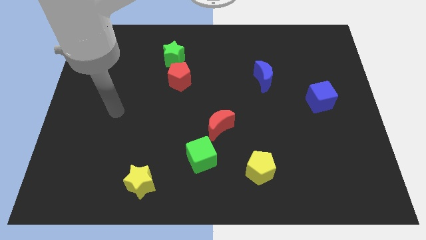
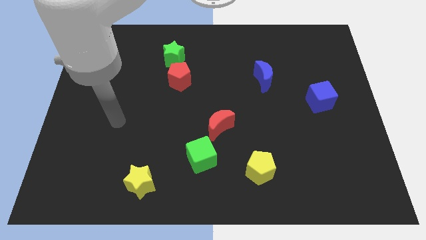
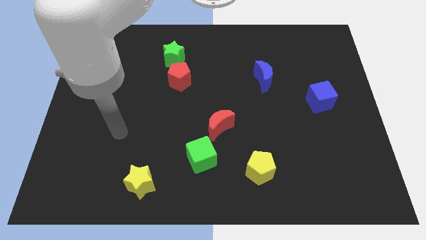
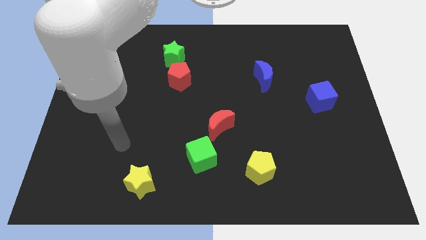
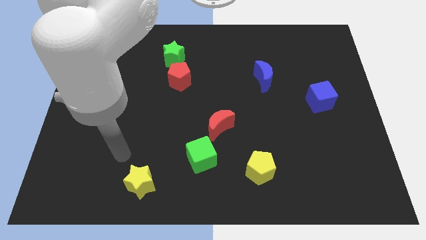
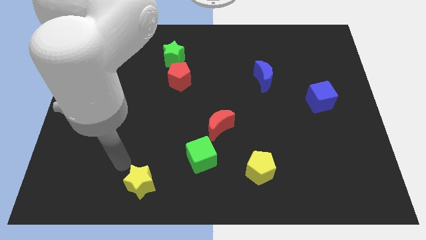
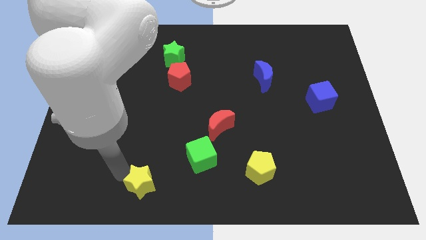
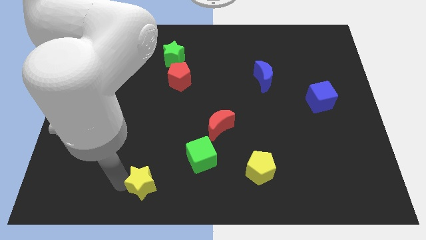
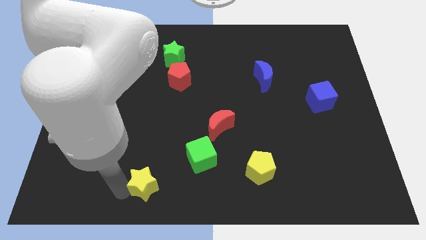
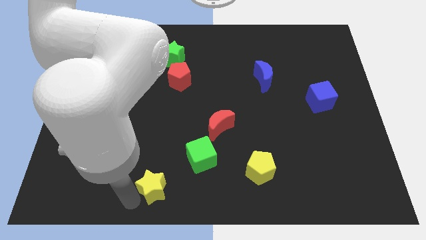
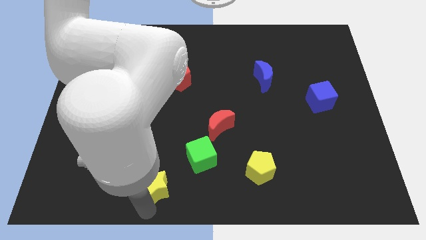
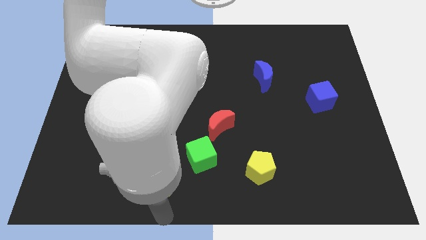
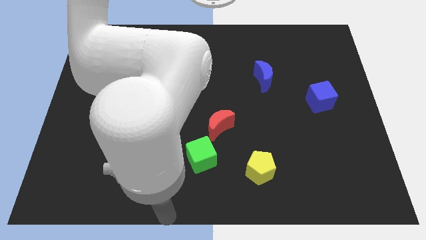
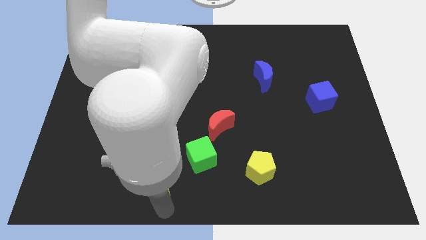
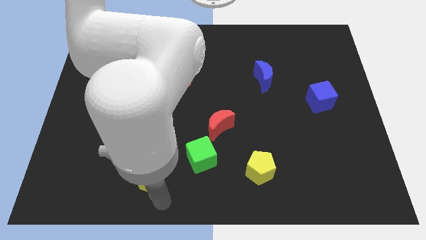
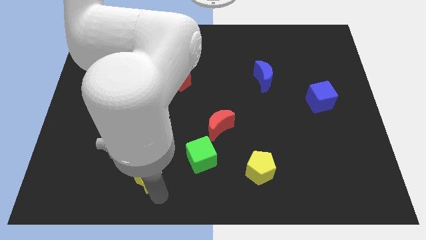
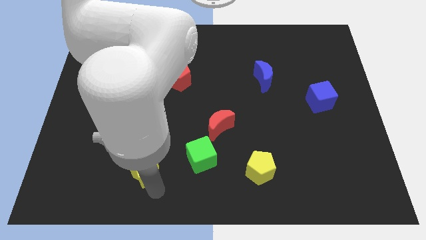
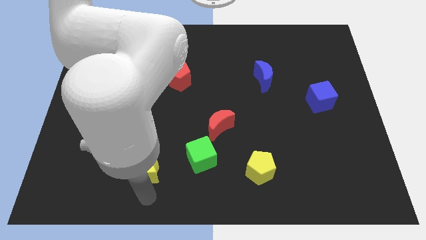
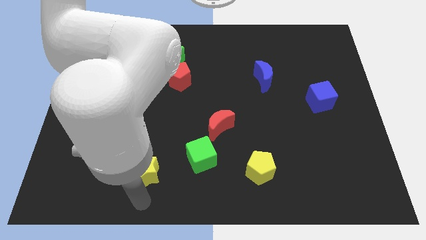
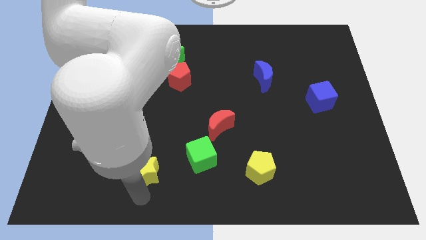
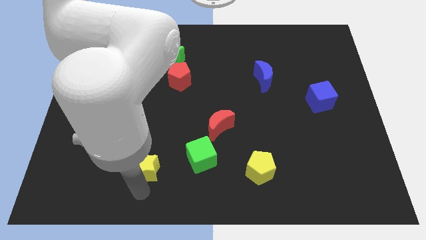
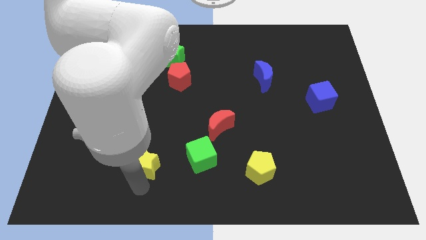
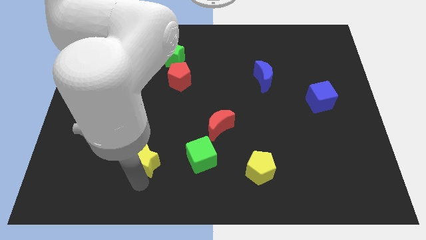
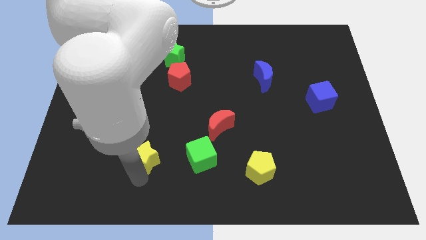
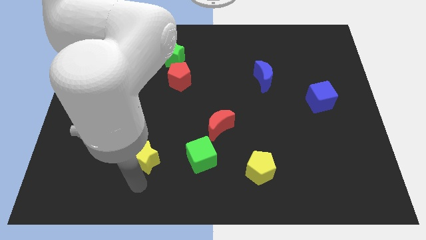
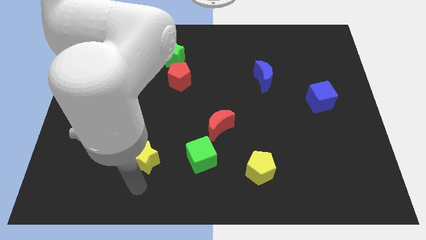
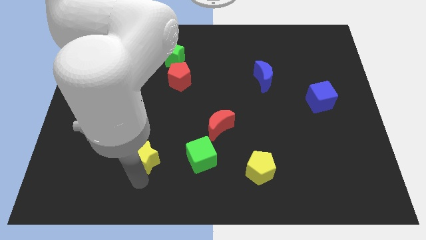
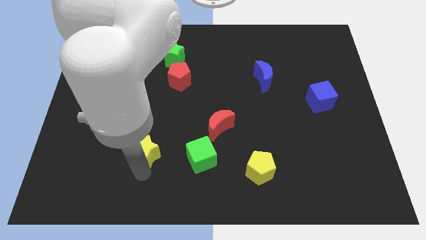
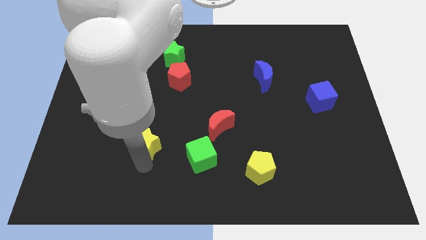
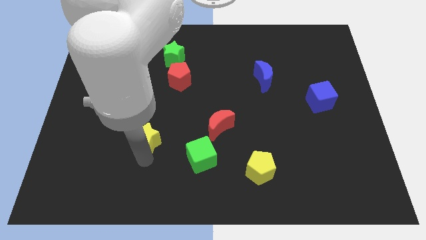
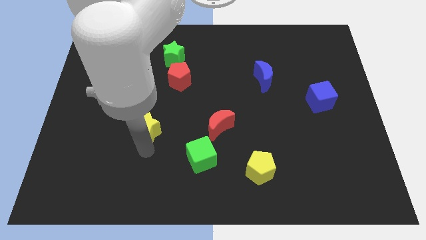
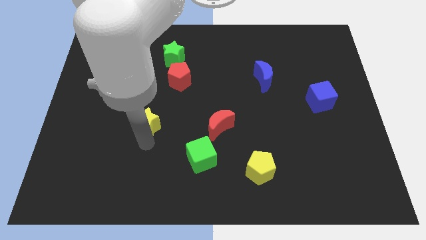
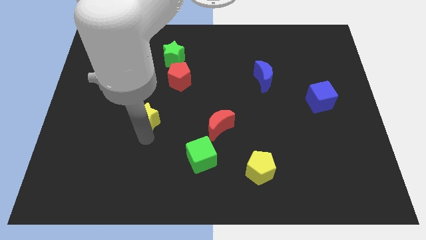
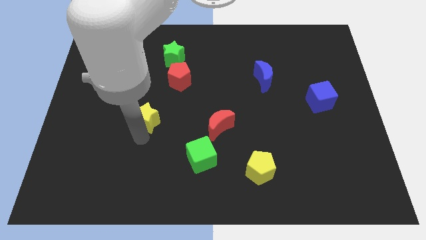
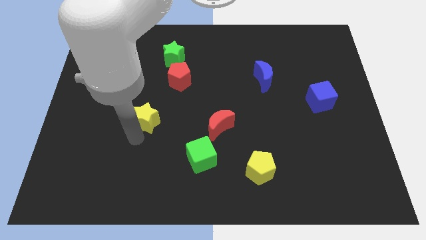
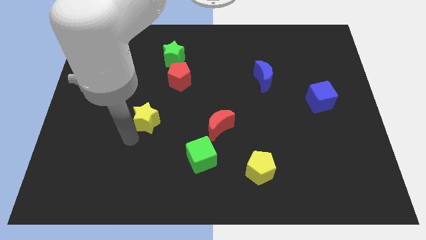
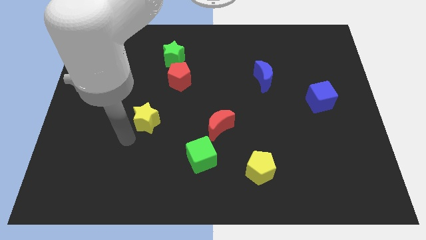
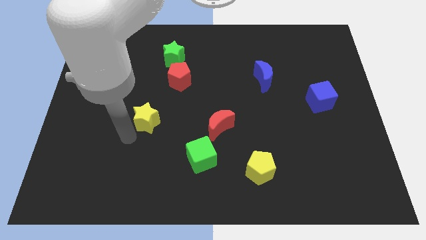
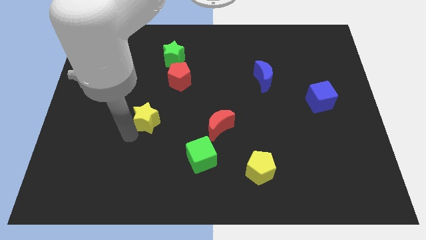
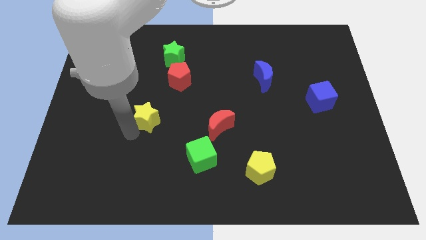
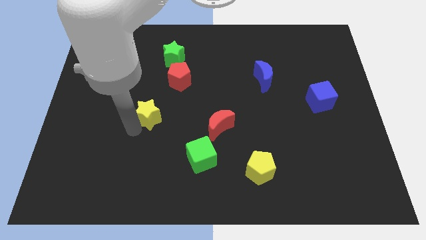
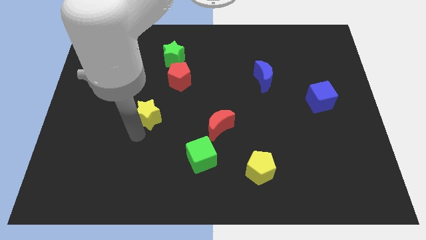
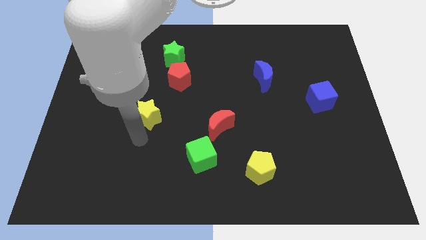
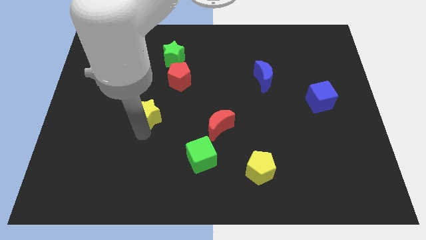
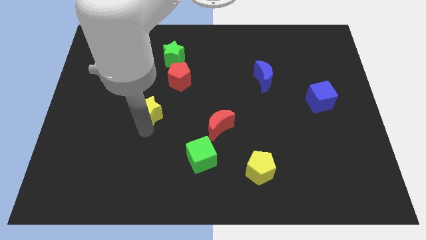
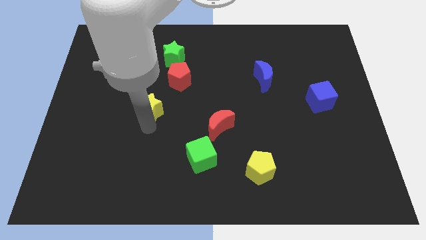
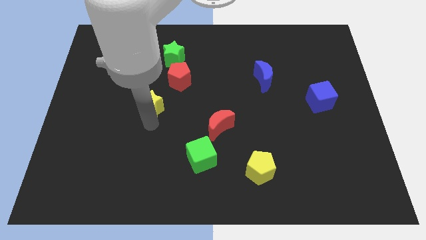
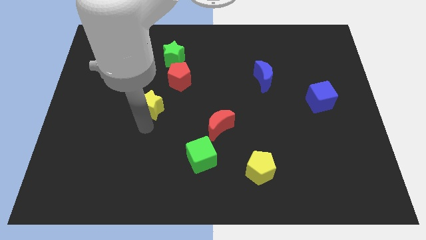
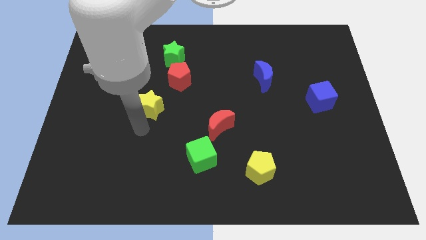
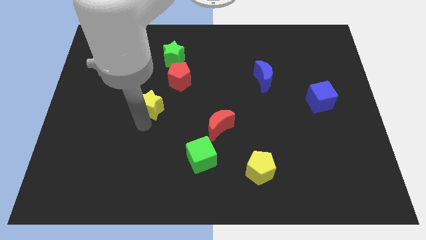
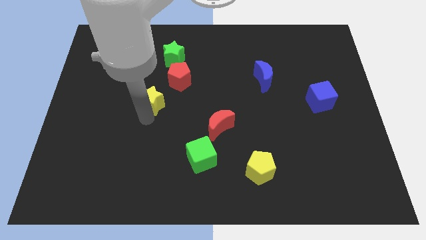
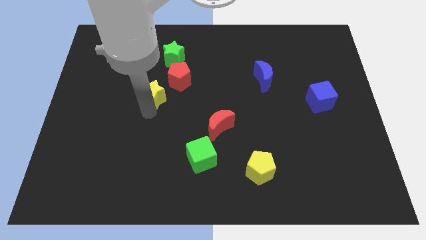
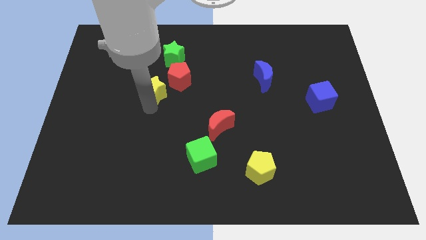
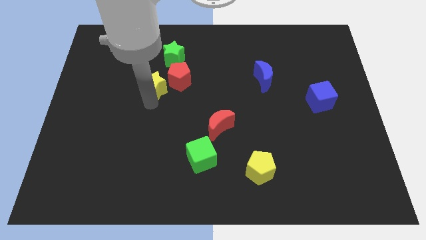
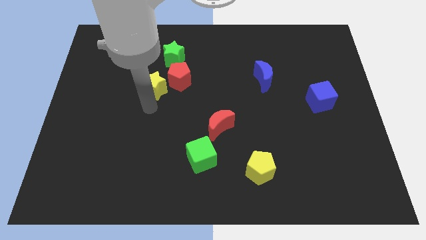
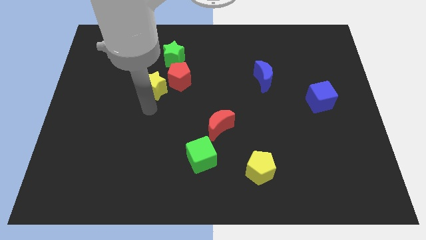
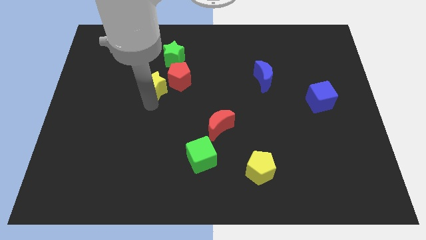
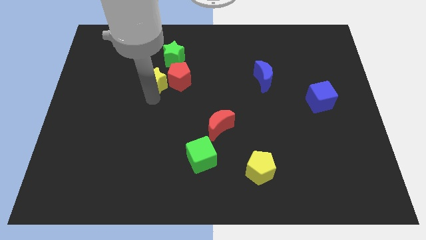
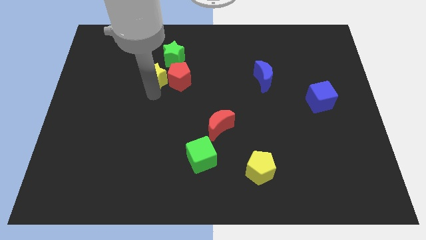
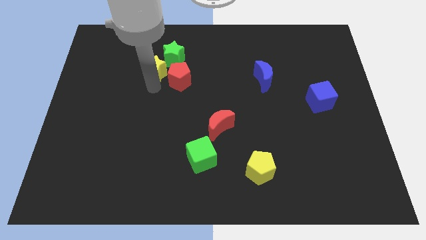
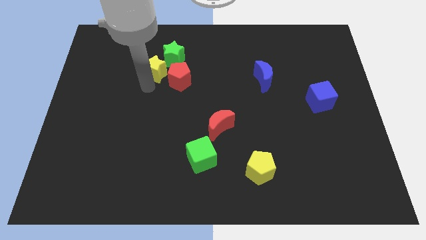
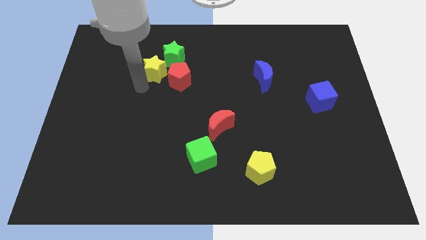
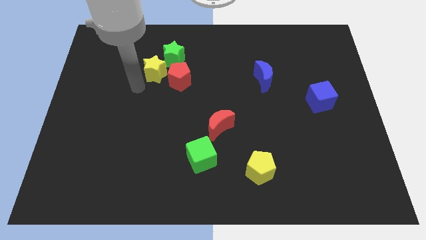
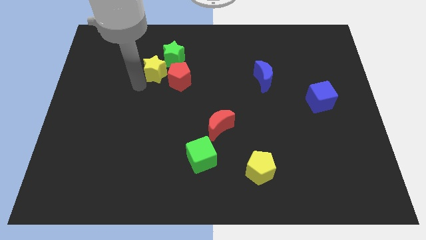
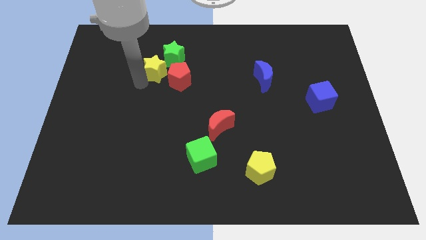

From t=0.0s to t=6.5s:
slide the yellow star next to the green star

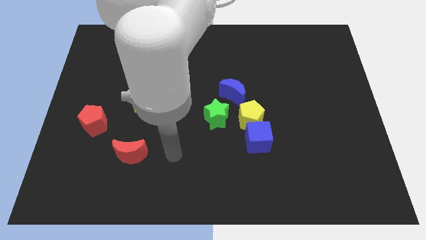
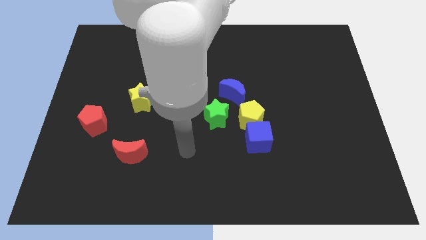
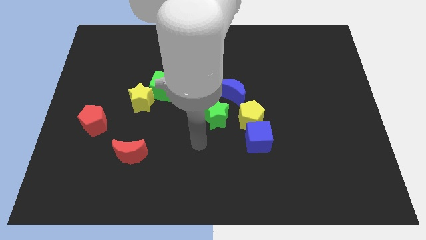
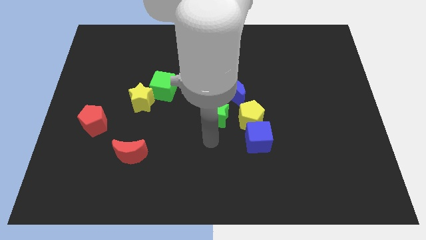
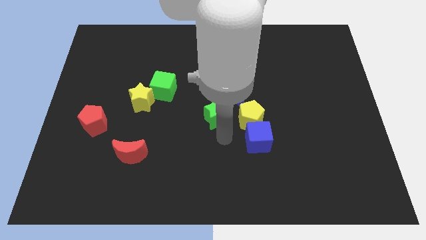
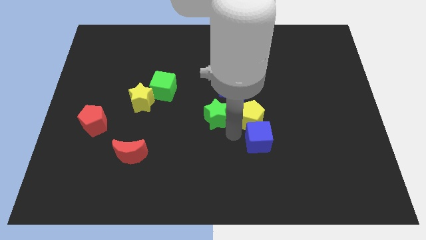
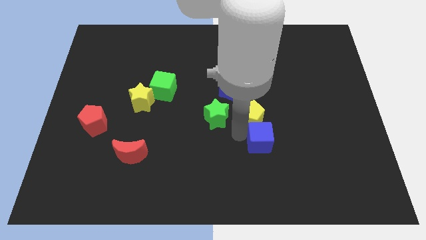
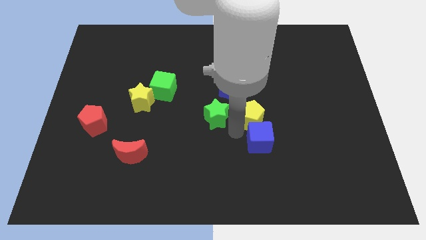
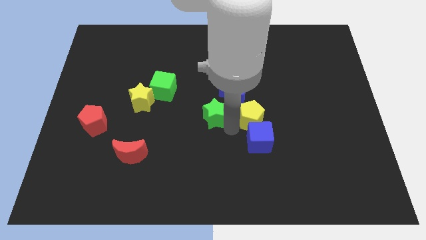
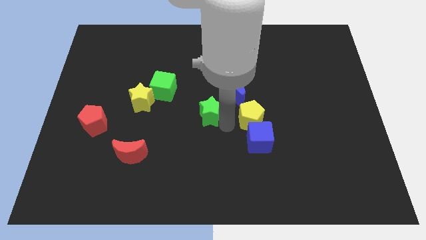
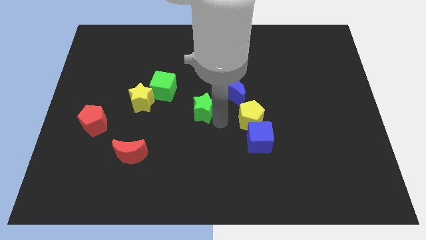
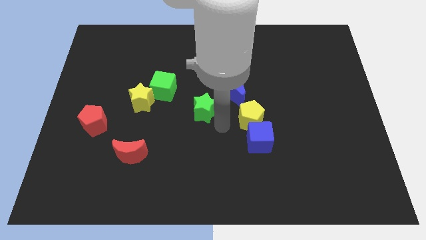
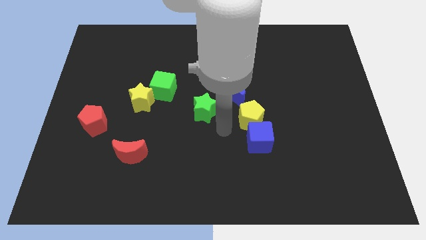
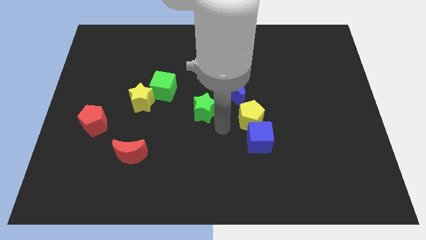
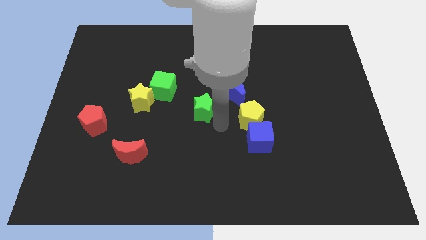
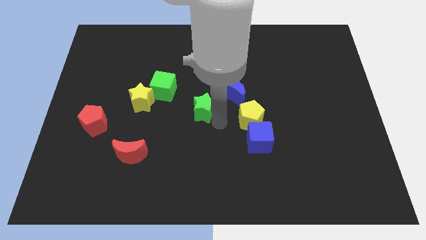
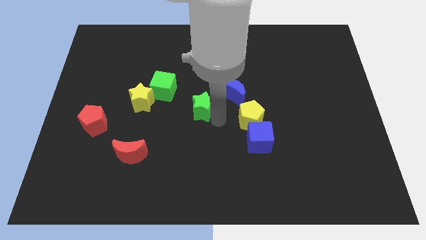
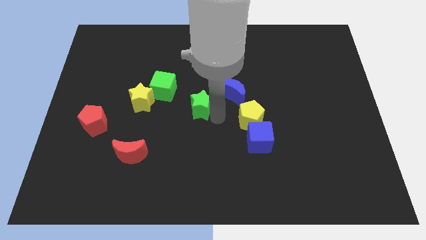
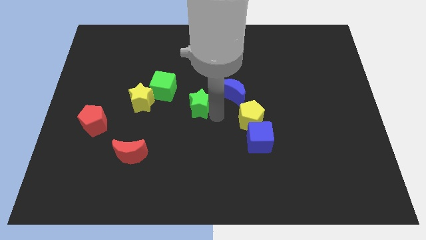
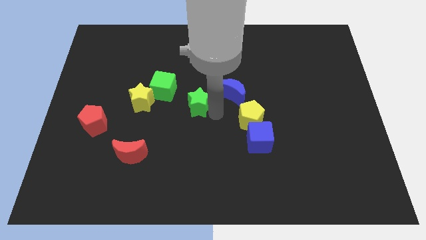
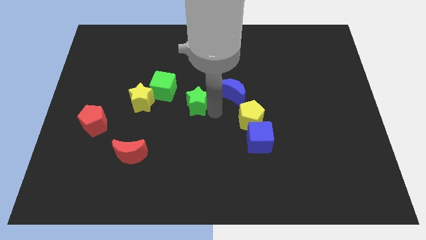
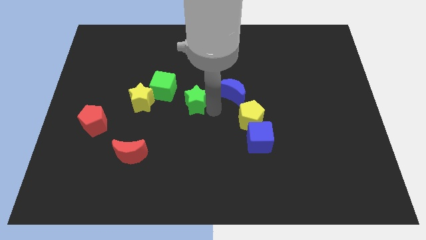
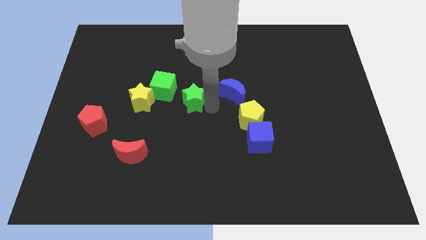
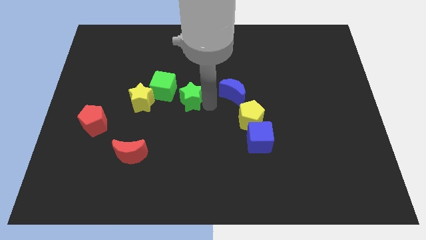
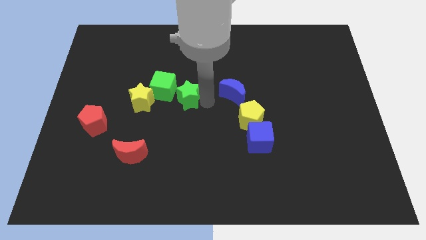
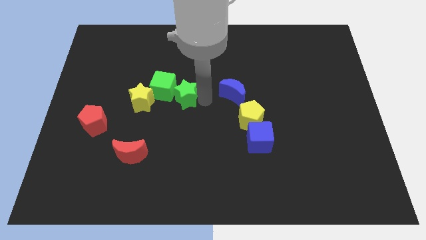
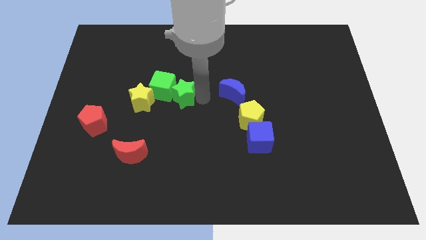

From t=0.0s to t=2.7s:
push the green star to the green cube
